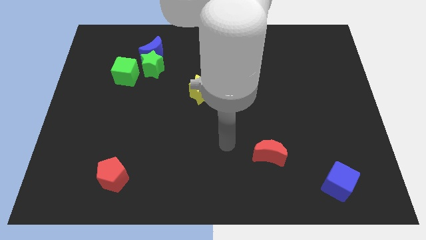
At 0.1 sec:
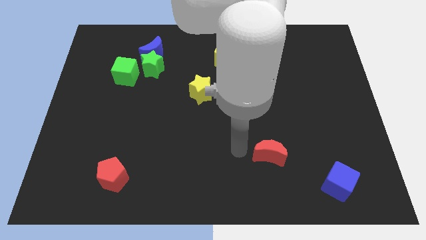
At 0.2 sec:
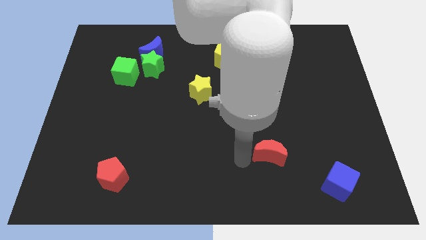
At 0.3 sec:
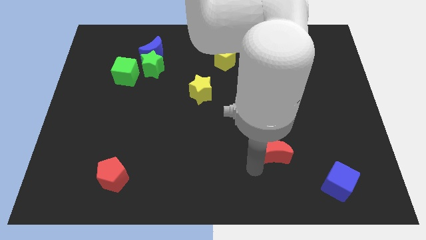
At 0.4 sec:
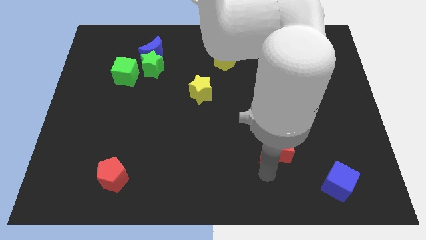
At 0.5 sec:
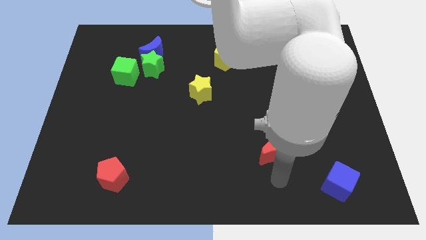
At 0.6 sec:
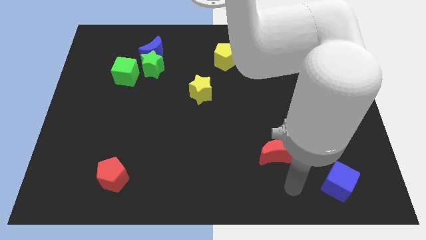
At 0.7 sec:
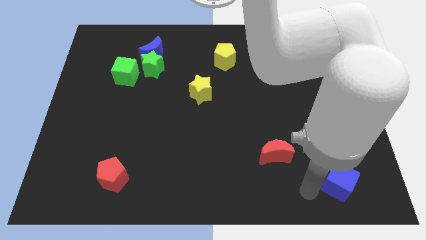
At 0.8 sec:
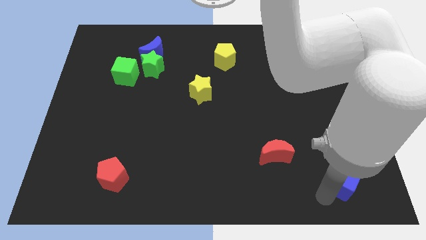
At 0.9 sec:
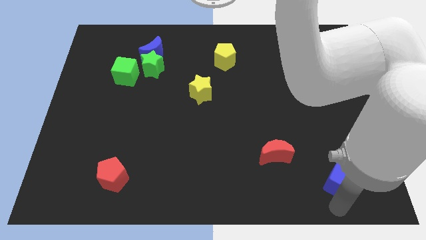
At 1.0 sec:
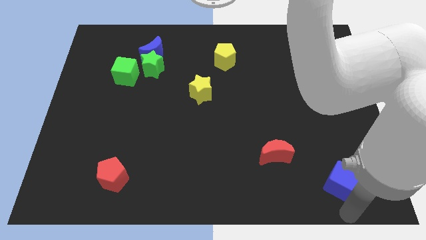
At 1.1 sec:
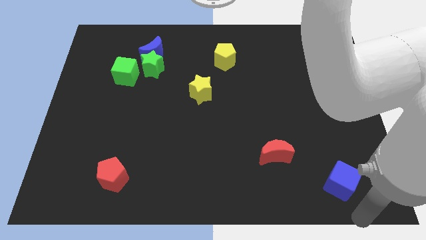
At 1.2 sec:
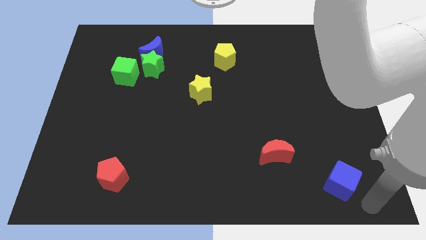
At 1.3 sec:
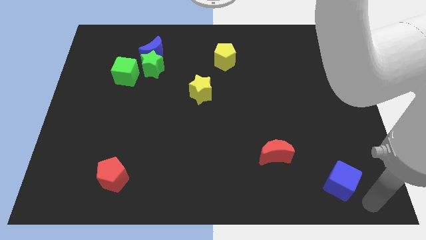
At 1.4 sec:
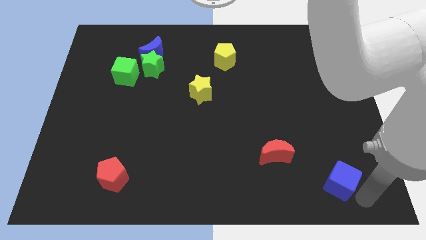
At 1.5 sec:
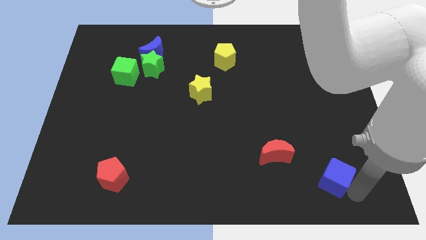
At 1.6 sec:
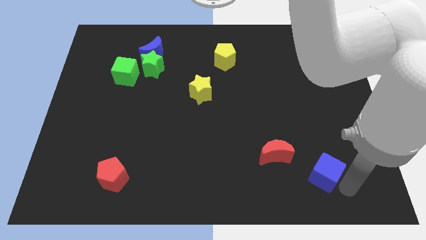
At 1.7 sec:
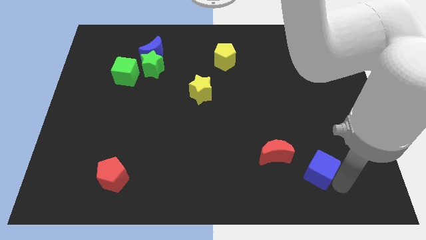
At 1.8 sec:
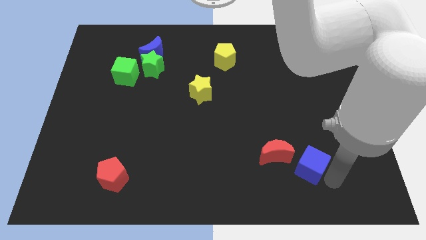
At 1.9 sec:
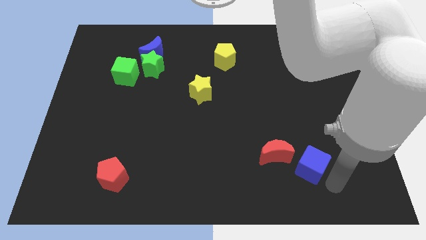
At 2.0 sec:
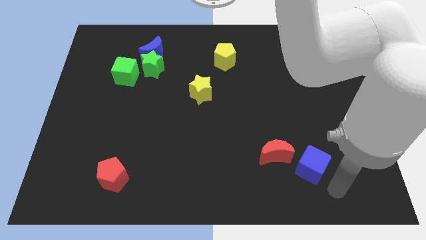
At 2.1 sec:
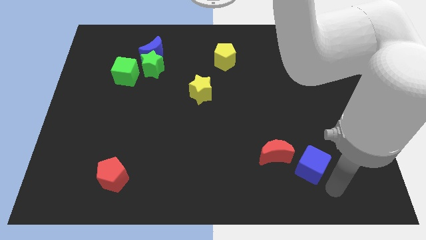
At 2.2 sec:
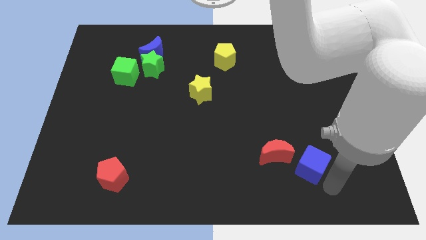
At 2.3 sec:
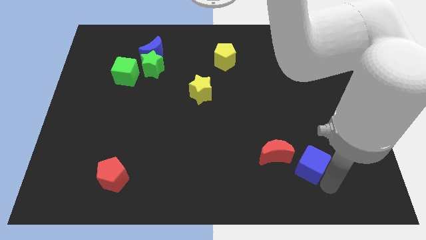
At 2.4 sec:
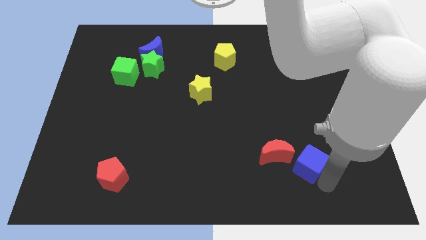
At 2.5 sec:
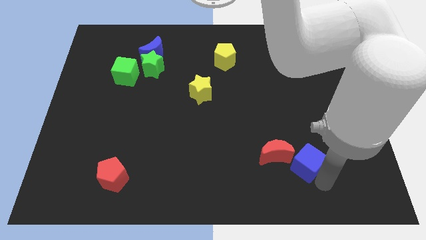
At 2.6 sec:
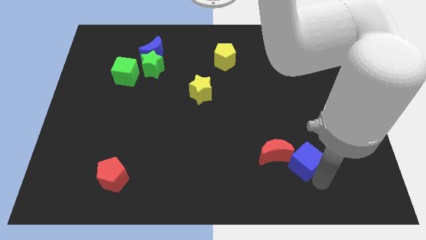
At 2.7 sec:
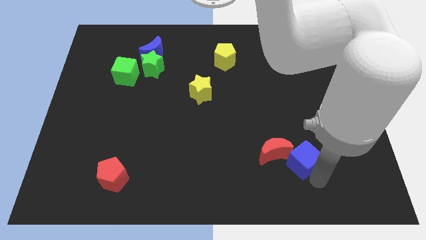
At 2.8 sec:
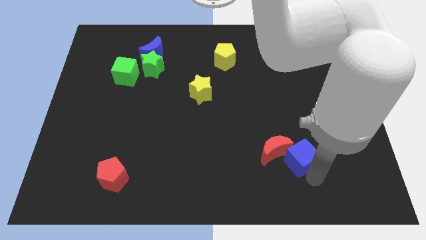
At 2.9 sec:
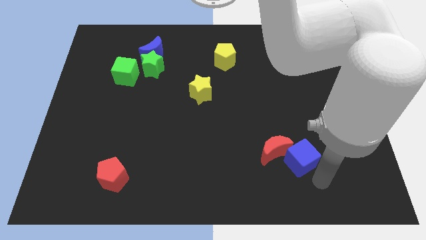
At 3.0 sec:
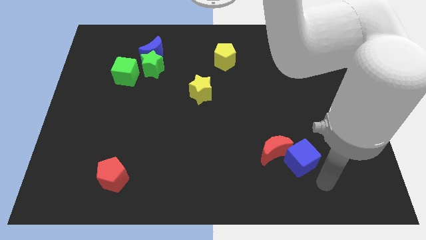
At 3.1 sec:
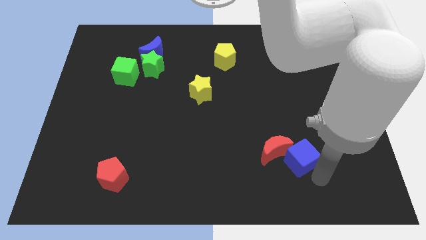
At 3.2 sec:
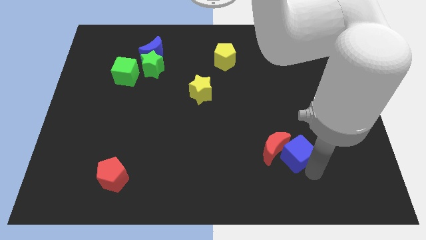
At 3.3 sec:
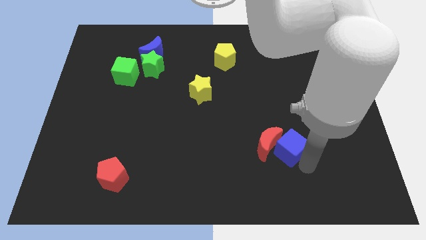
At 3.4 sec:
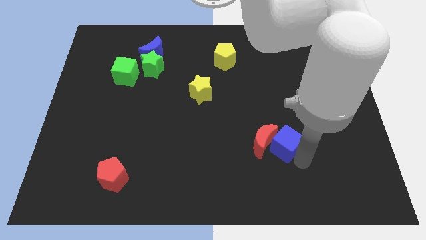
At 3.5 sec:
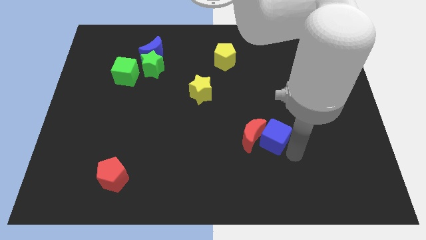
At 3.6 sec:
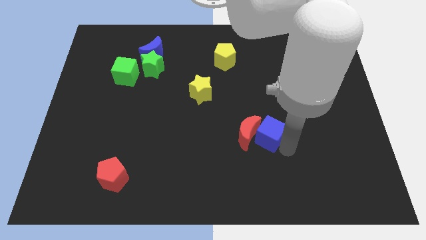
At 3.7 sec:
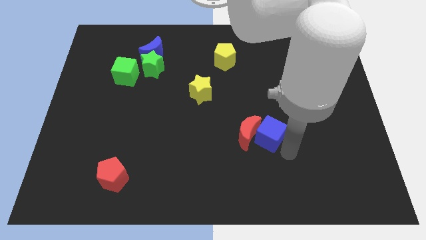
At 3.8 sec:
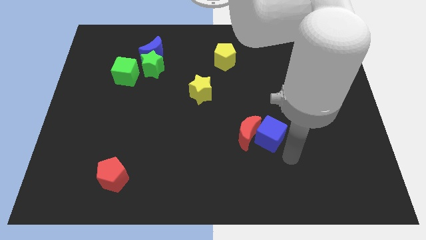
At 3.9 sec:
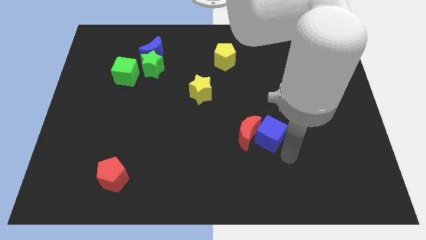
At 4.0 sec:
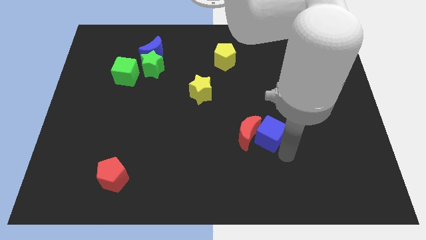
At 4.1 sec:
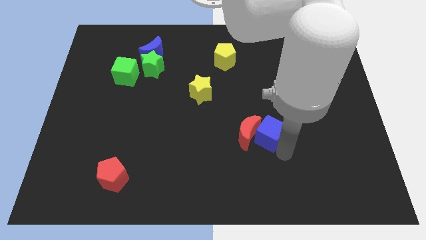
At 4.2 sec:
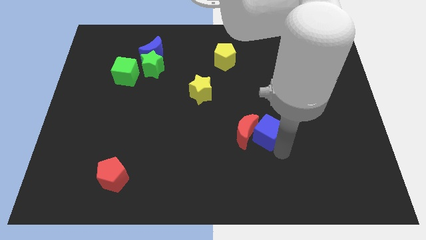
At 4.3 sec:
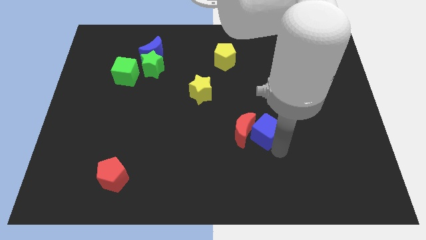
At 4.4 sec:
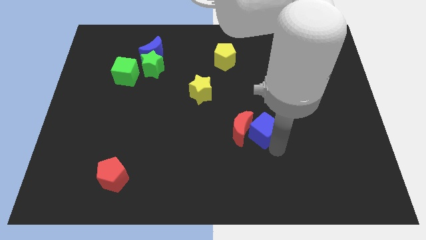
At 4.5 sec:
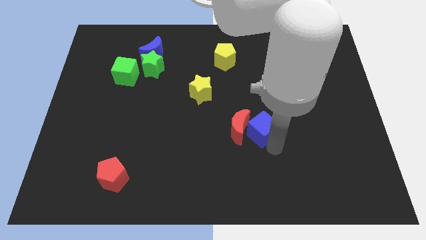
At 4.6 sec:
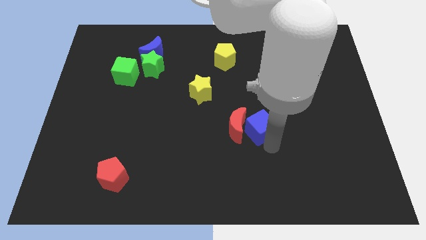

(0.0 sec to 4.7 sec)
move the blue cube upwards and to the left

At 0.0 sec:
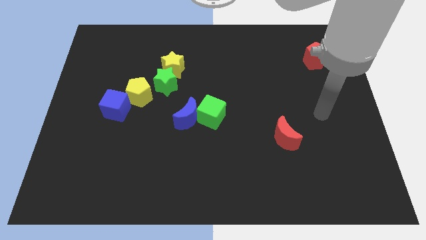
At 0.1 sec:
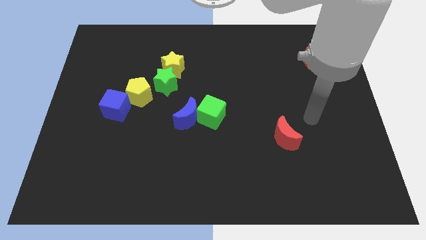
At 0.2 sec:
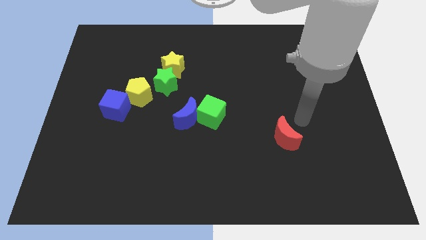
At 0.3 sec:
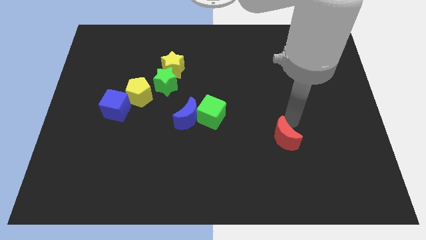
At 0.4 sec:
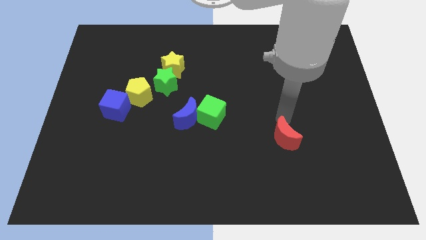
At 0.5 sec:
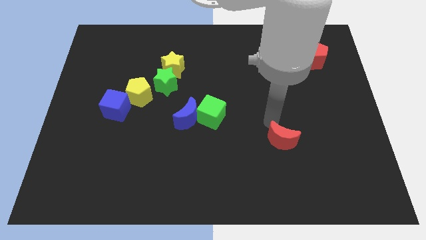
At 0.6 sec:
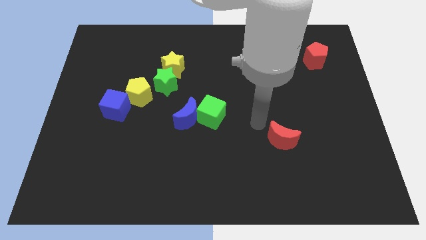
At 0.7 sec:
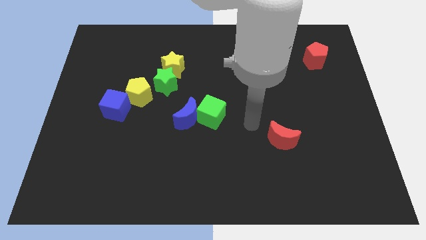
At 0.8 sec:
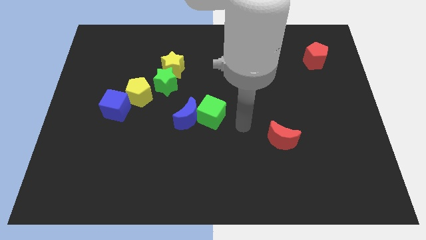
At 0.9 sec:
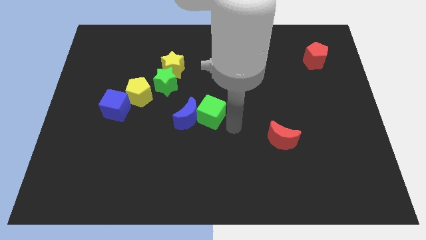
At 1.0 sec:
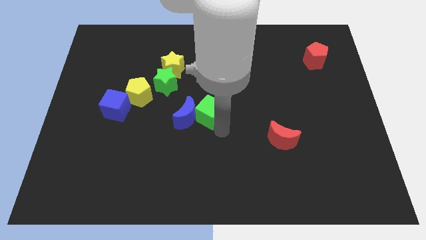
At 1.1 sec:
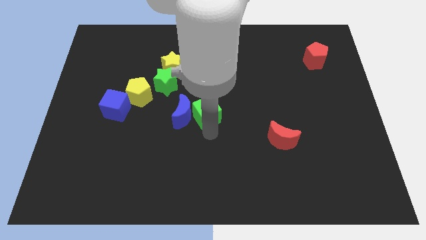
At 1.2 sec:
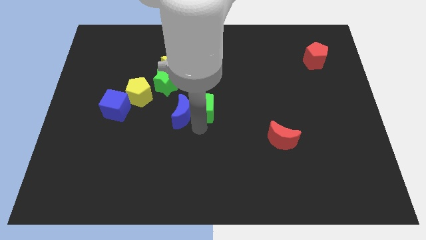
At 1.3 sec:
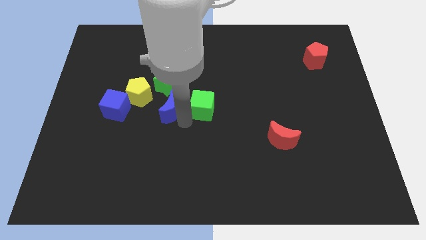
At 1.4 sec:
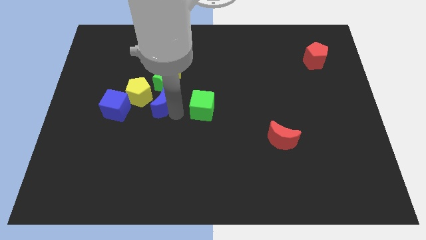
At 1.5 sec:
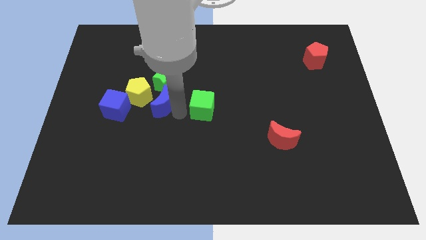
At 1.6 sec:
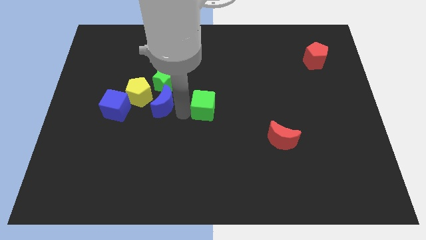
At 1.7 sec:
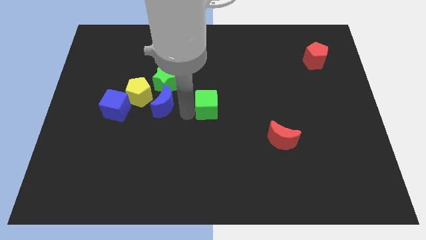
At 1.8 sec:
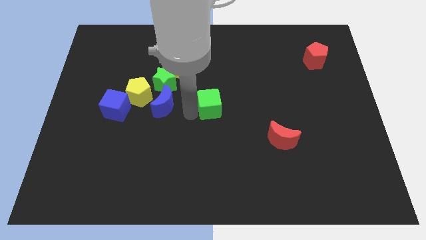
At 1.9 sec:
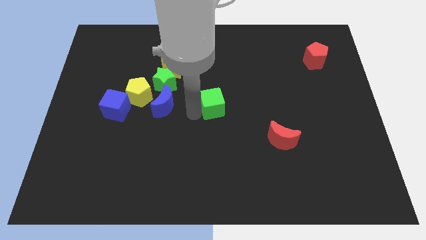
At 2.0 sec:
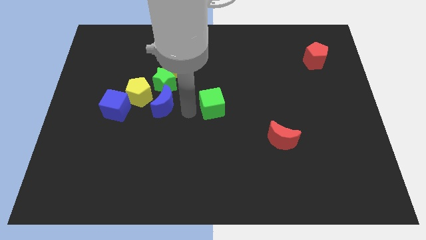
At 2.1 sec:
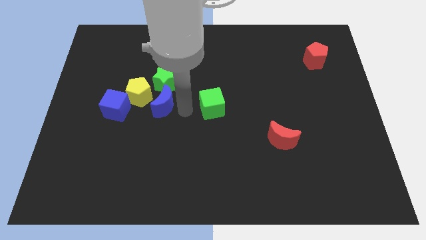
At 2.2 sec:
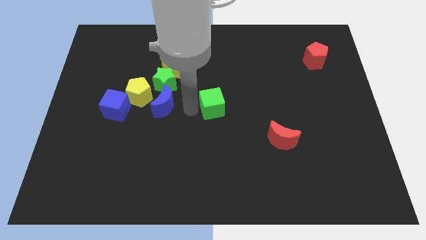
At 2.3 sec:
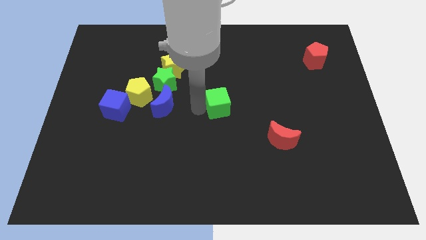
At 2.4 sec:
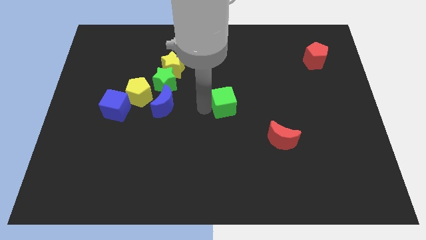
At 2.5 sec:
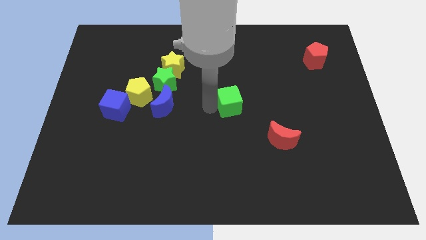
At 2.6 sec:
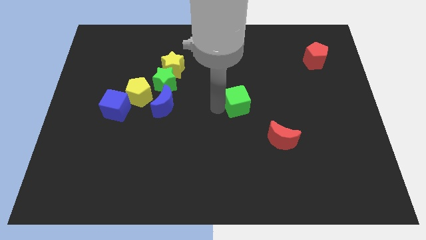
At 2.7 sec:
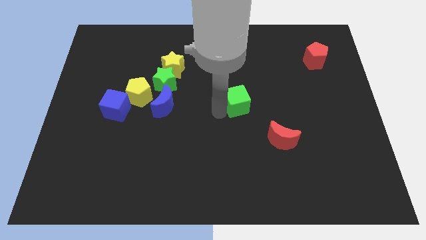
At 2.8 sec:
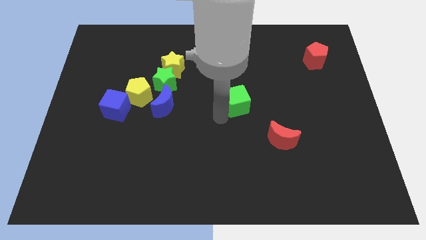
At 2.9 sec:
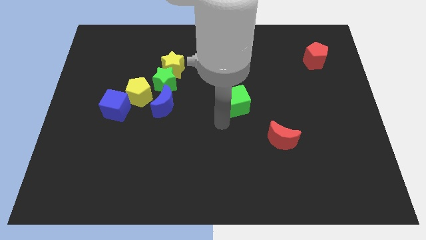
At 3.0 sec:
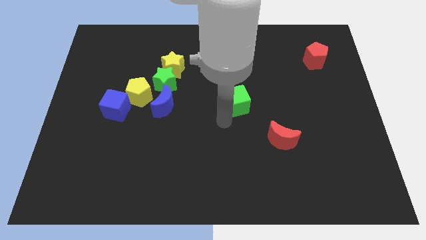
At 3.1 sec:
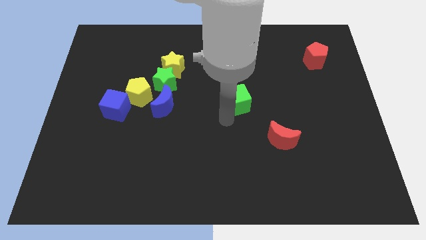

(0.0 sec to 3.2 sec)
slightly slide the green cube diagonally upwards and right
